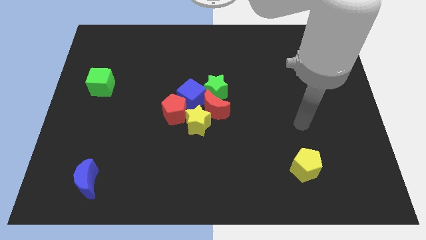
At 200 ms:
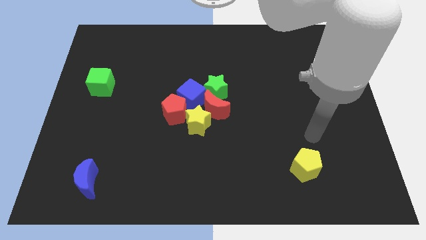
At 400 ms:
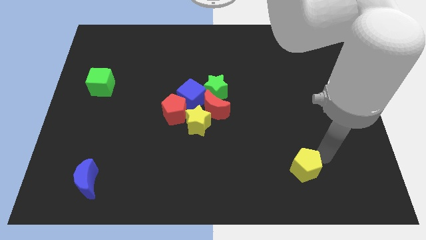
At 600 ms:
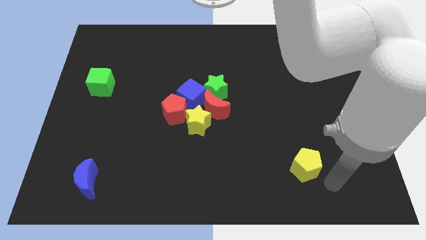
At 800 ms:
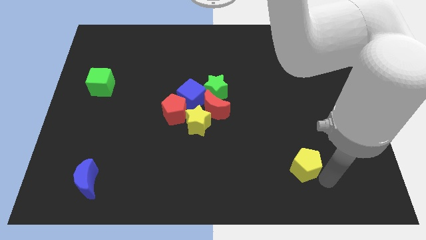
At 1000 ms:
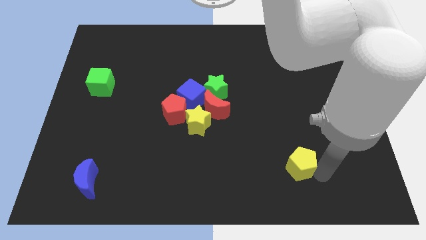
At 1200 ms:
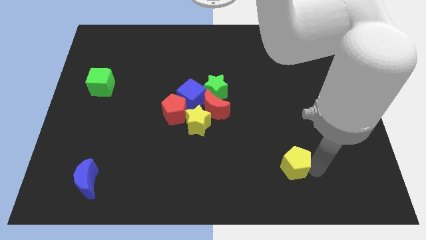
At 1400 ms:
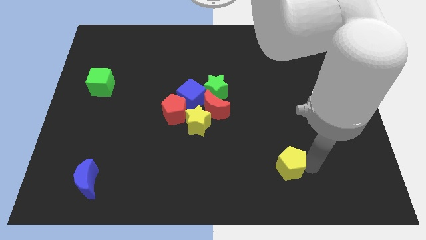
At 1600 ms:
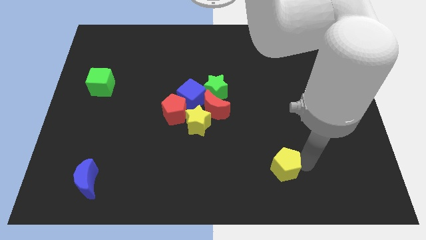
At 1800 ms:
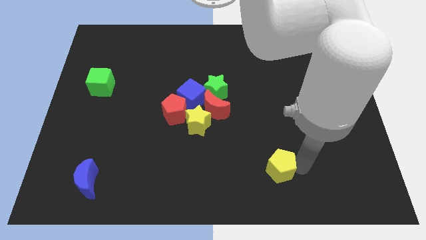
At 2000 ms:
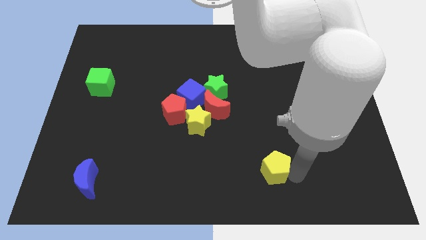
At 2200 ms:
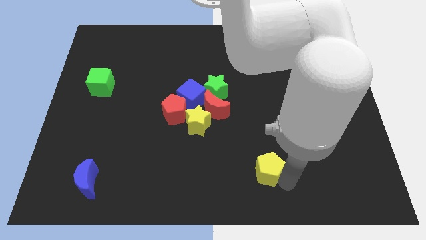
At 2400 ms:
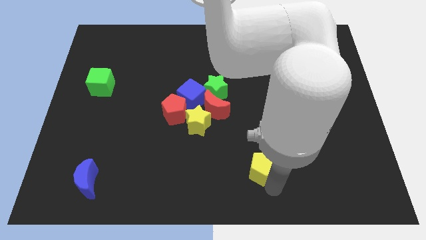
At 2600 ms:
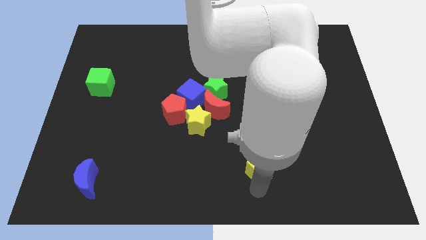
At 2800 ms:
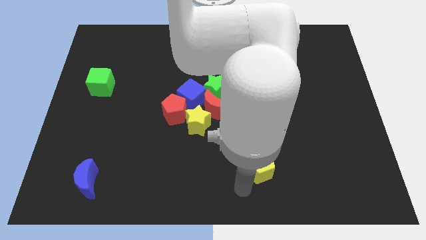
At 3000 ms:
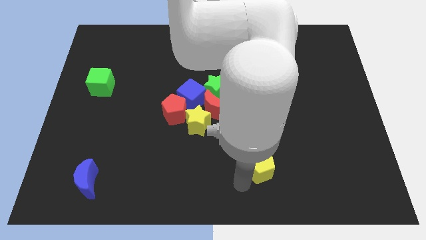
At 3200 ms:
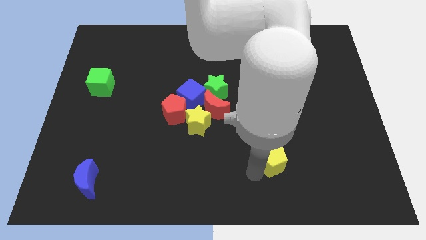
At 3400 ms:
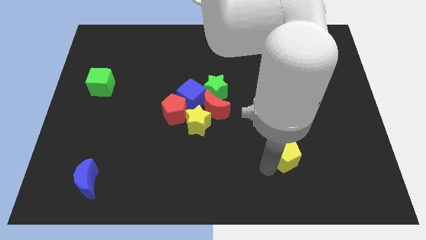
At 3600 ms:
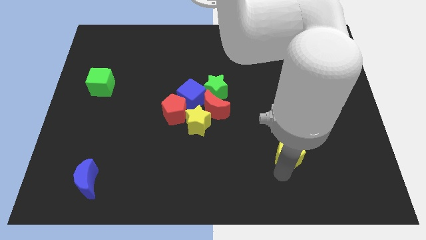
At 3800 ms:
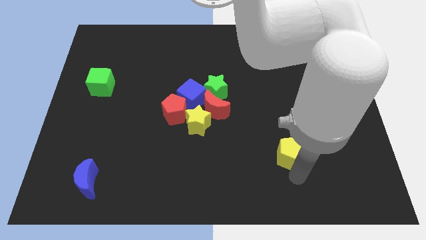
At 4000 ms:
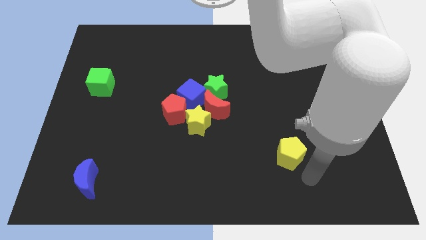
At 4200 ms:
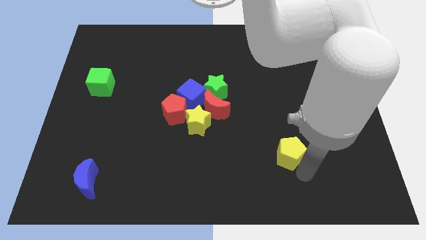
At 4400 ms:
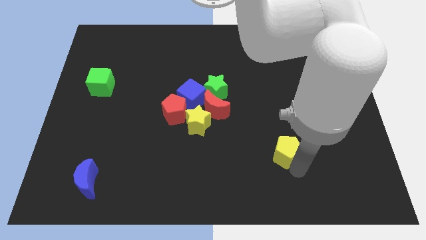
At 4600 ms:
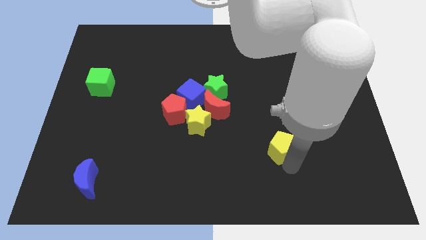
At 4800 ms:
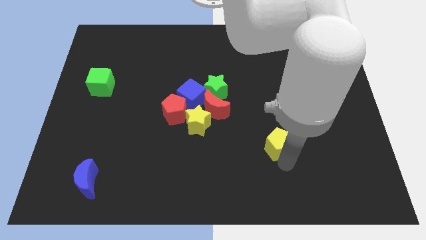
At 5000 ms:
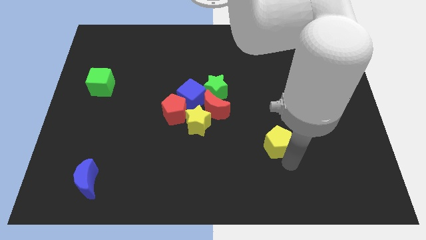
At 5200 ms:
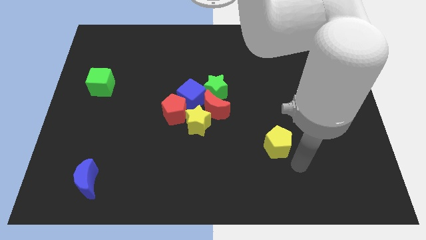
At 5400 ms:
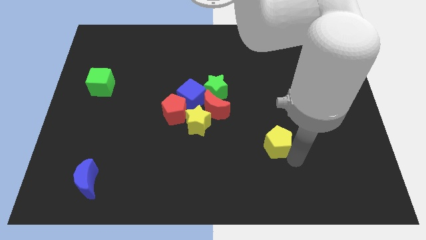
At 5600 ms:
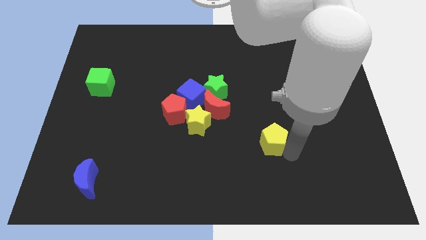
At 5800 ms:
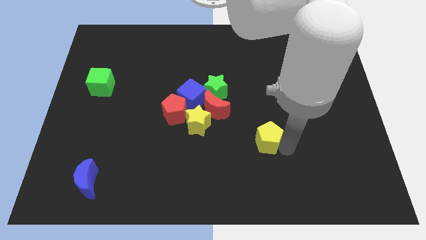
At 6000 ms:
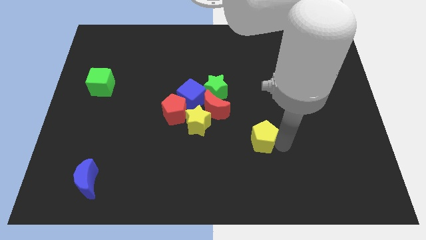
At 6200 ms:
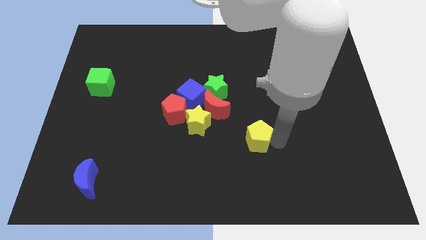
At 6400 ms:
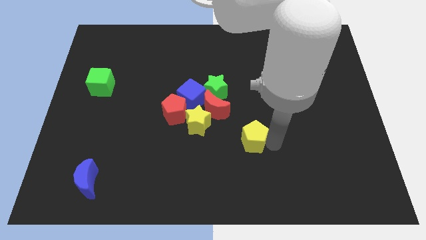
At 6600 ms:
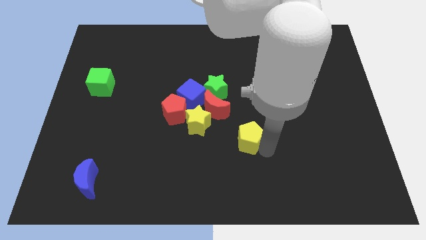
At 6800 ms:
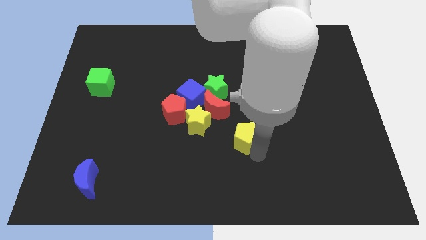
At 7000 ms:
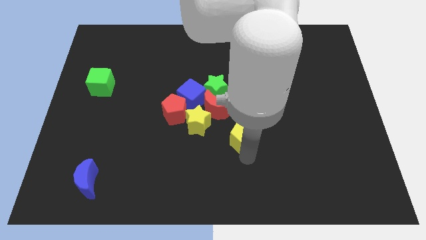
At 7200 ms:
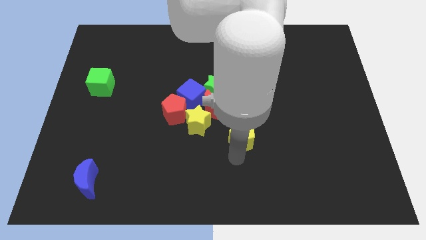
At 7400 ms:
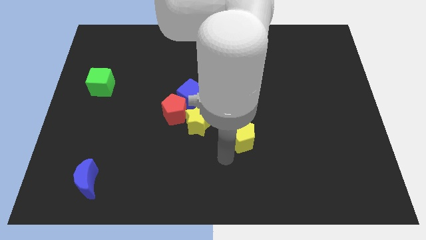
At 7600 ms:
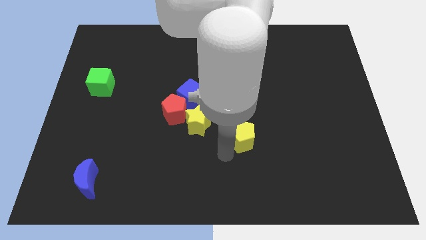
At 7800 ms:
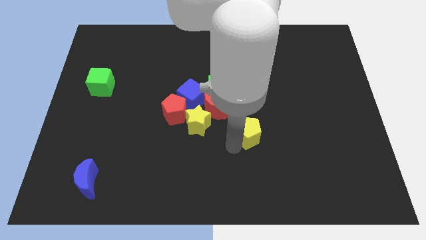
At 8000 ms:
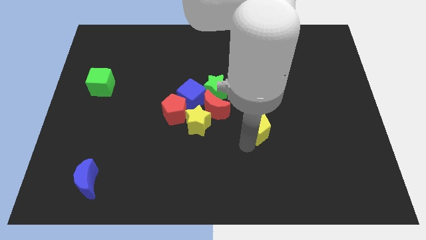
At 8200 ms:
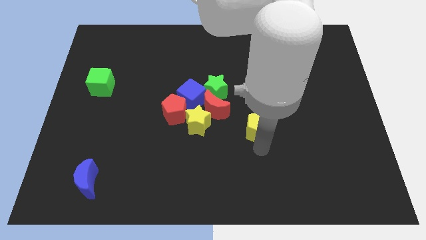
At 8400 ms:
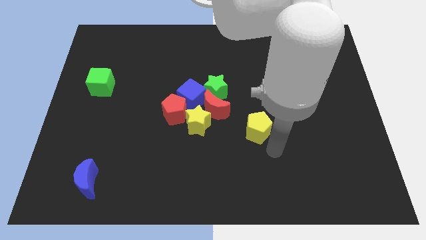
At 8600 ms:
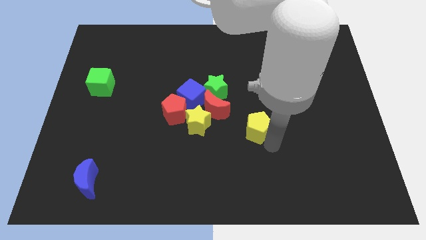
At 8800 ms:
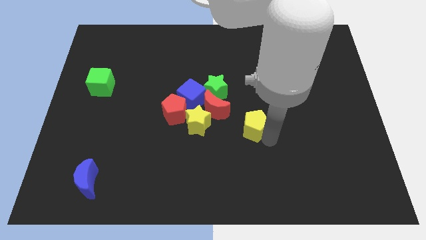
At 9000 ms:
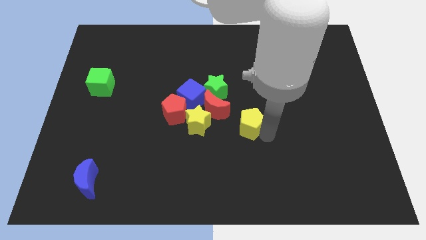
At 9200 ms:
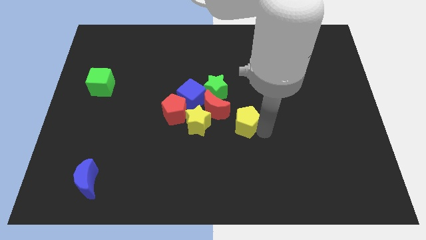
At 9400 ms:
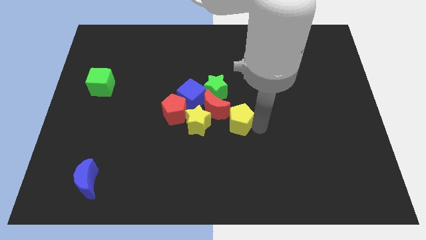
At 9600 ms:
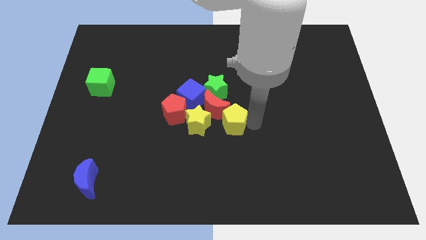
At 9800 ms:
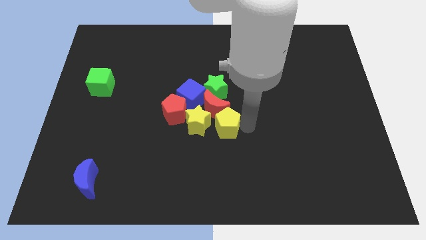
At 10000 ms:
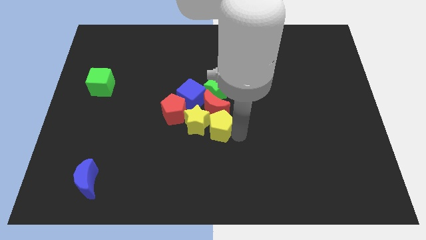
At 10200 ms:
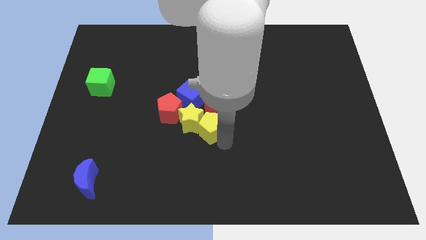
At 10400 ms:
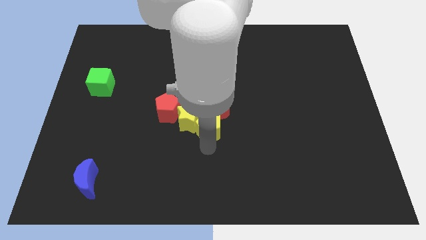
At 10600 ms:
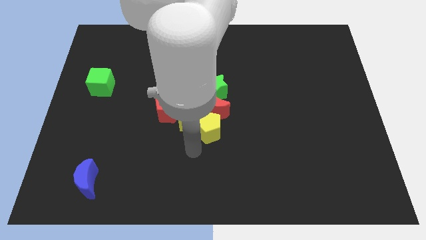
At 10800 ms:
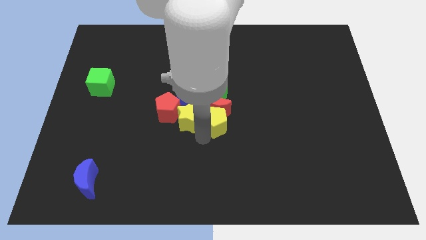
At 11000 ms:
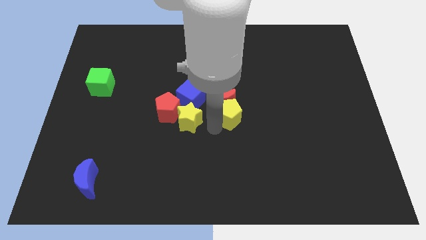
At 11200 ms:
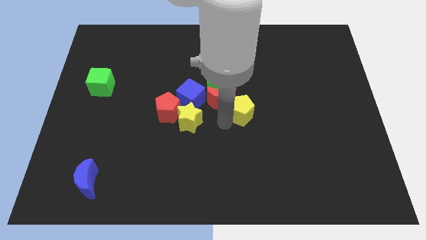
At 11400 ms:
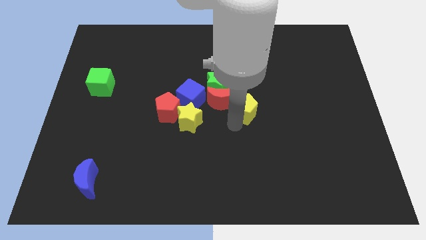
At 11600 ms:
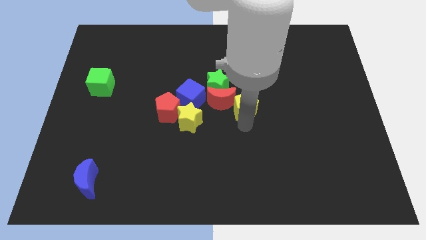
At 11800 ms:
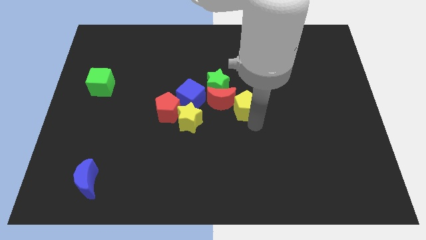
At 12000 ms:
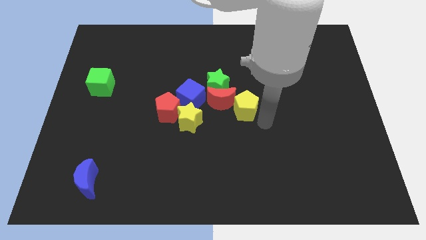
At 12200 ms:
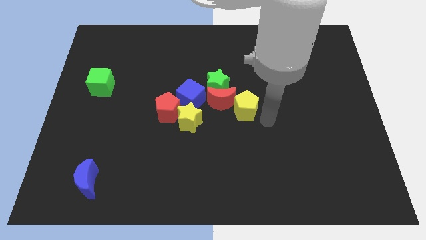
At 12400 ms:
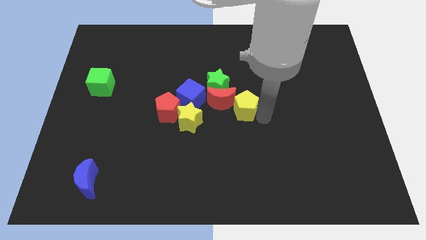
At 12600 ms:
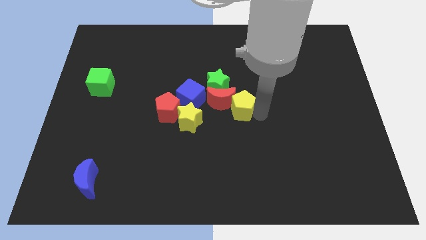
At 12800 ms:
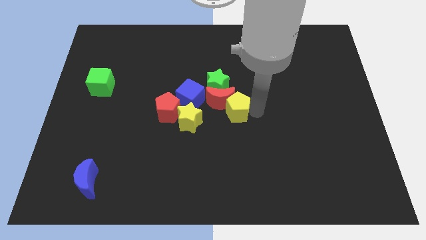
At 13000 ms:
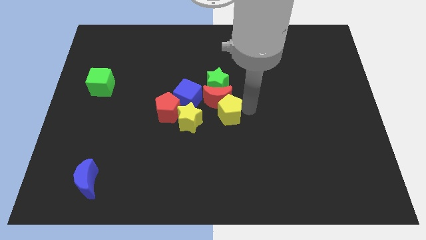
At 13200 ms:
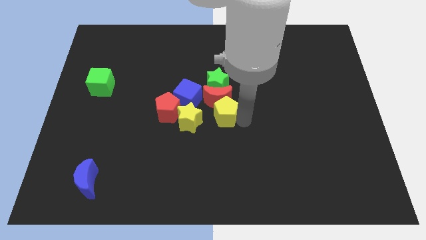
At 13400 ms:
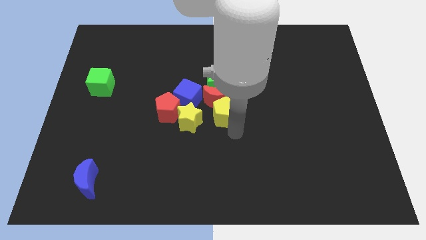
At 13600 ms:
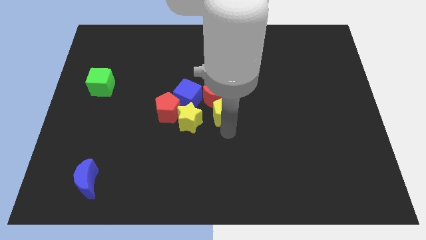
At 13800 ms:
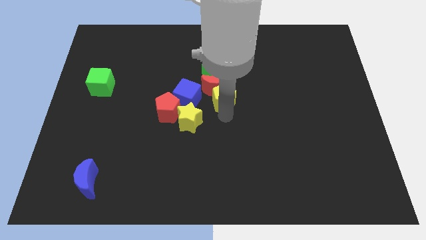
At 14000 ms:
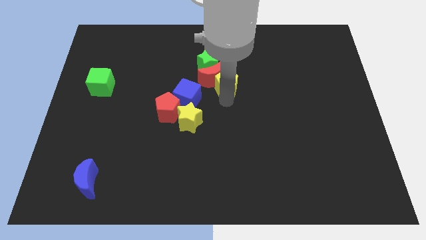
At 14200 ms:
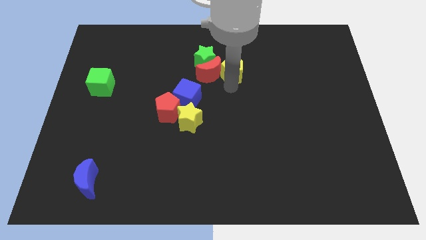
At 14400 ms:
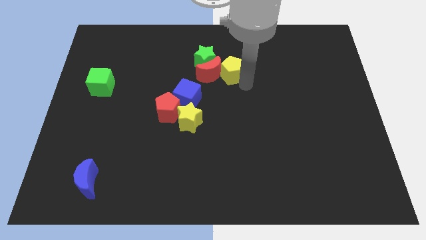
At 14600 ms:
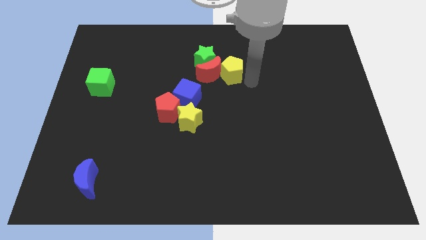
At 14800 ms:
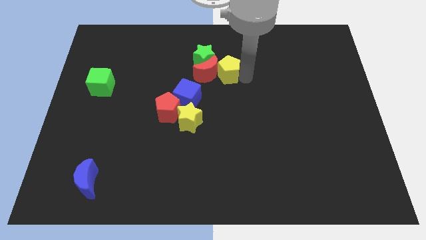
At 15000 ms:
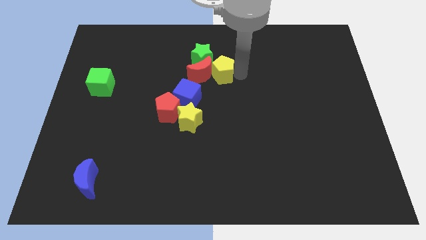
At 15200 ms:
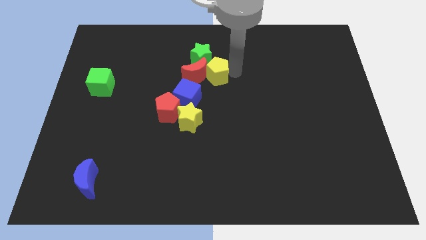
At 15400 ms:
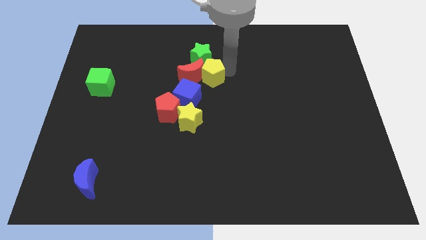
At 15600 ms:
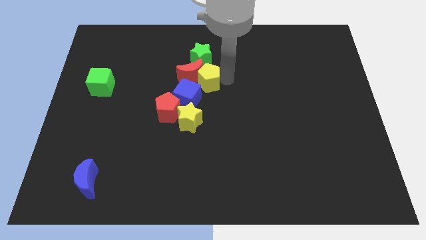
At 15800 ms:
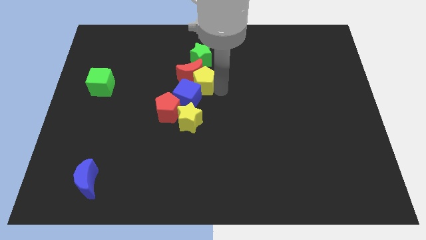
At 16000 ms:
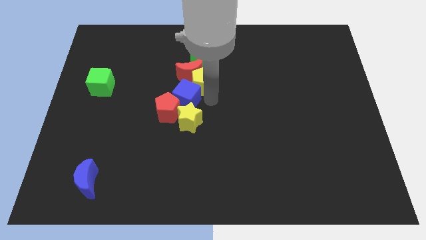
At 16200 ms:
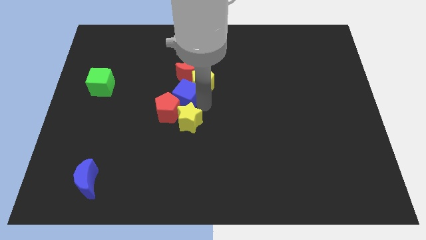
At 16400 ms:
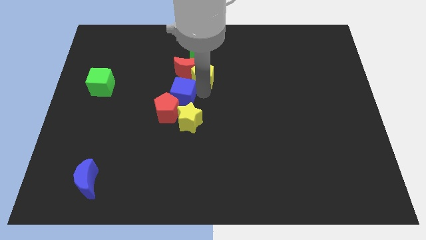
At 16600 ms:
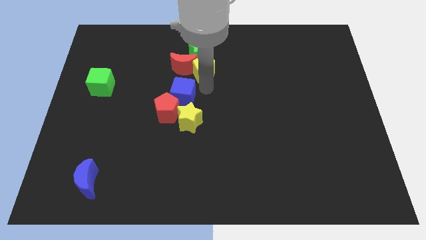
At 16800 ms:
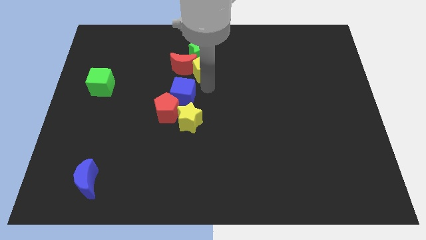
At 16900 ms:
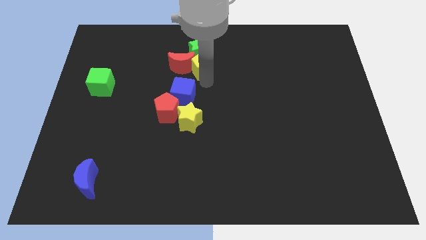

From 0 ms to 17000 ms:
move the yellow pentagon to the green star
